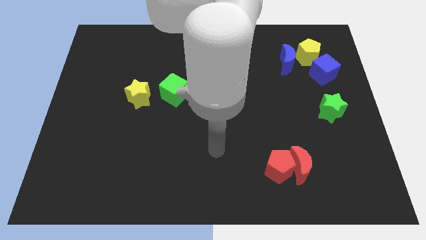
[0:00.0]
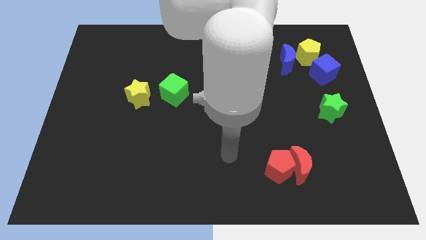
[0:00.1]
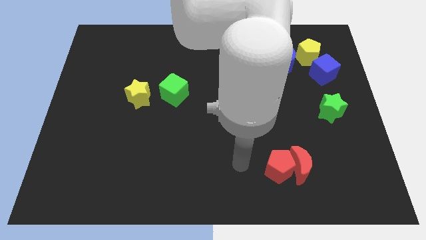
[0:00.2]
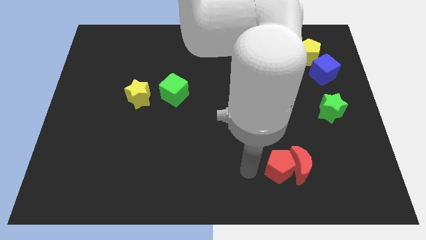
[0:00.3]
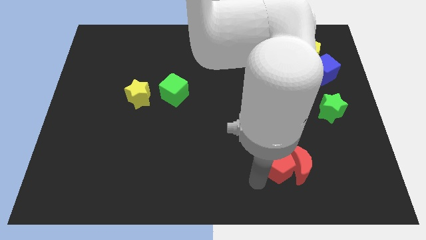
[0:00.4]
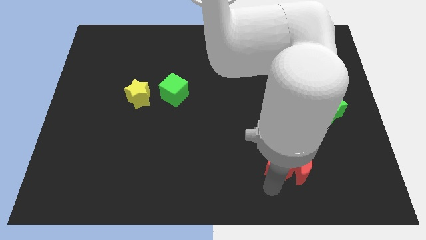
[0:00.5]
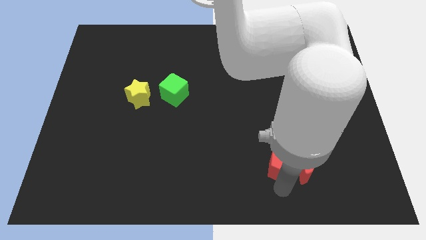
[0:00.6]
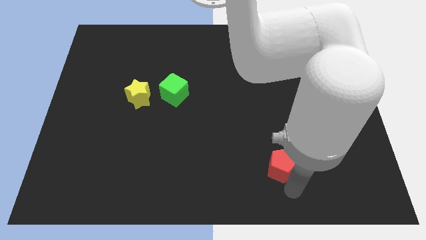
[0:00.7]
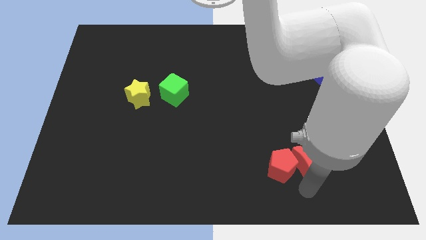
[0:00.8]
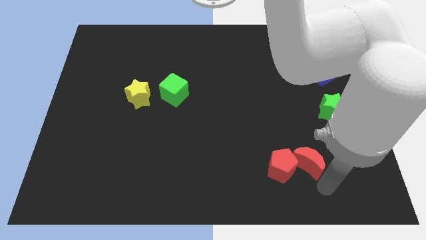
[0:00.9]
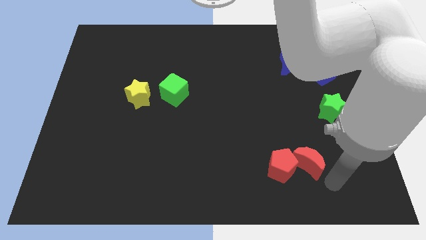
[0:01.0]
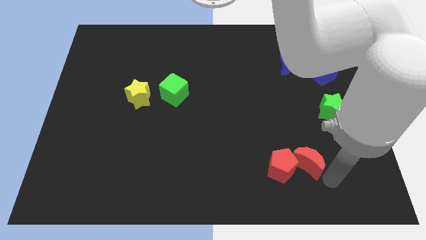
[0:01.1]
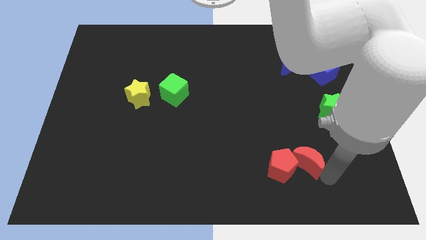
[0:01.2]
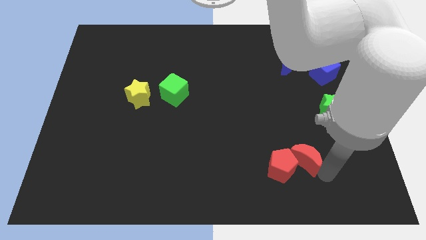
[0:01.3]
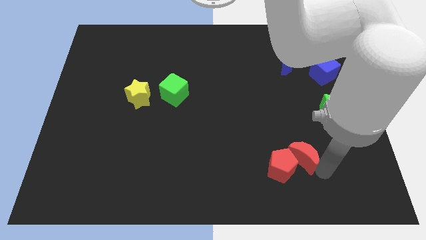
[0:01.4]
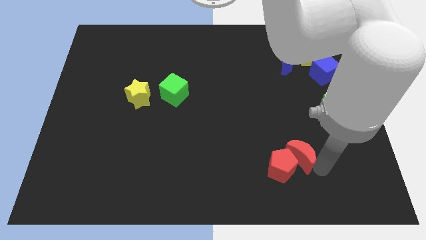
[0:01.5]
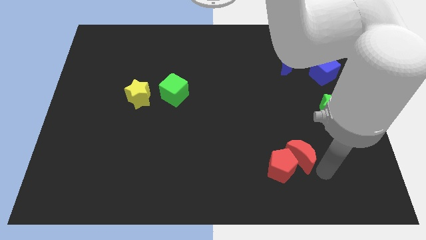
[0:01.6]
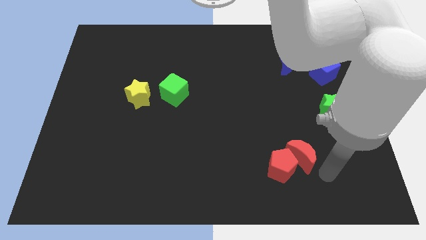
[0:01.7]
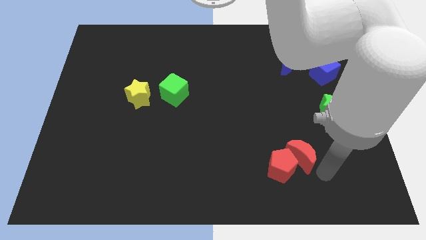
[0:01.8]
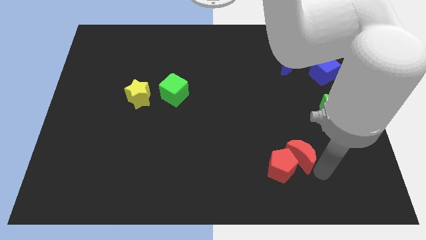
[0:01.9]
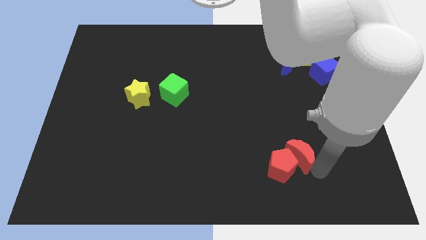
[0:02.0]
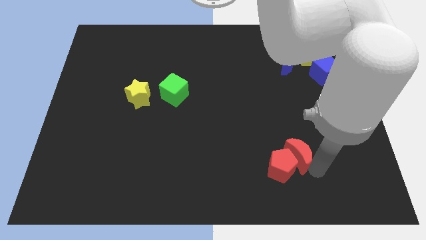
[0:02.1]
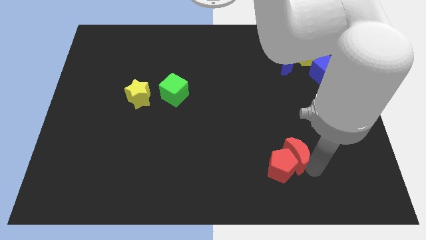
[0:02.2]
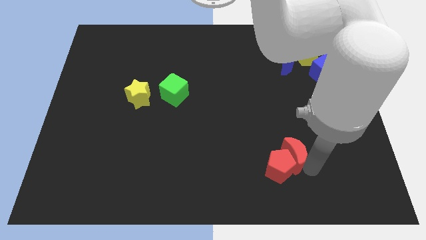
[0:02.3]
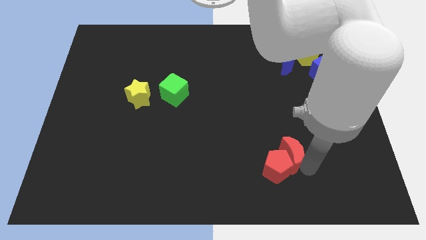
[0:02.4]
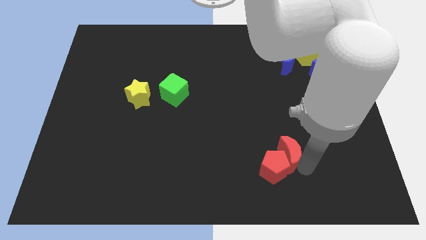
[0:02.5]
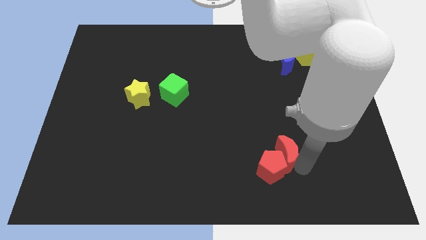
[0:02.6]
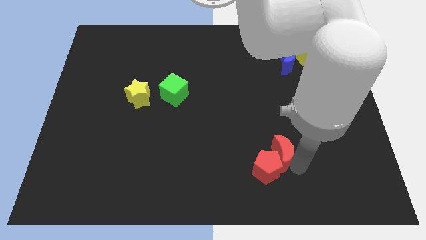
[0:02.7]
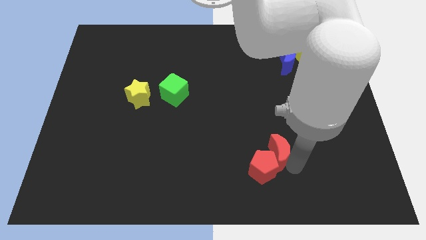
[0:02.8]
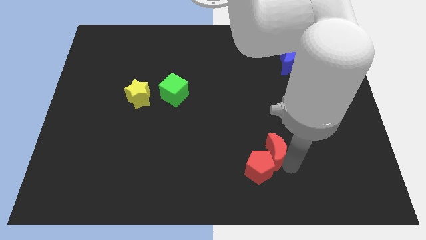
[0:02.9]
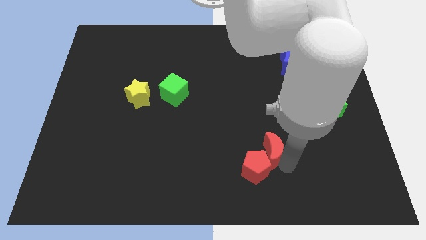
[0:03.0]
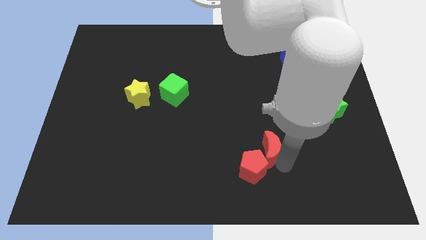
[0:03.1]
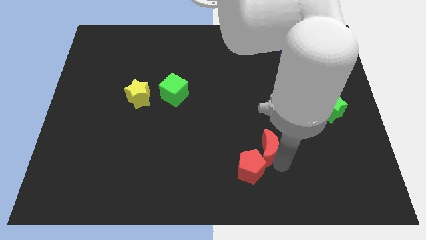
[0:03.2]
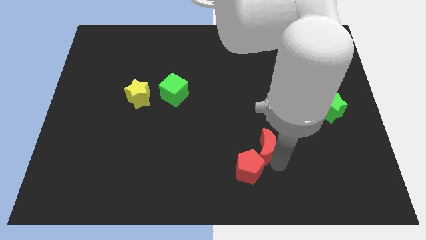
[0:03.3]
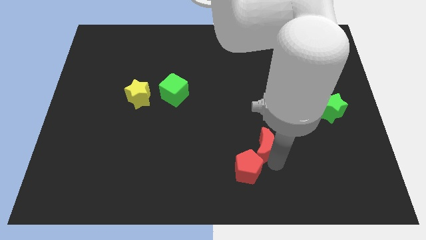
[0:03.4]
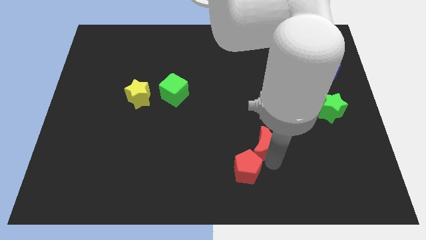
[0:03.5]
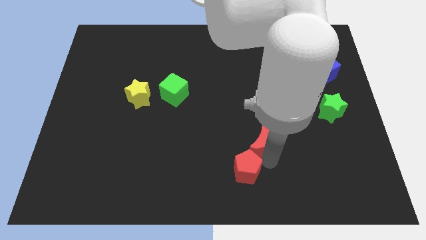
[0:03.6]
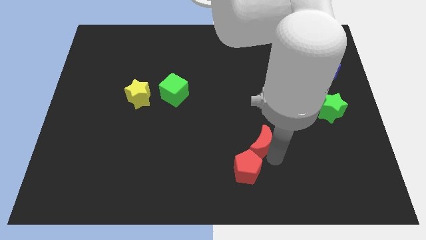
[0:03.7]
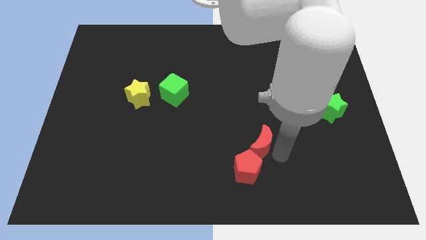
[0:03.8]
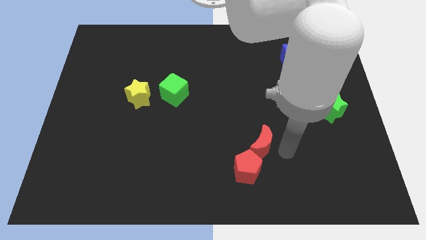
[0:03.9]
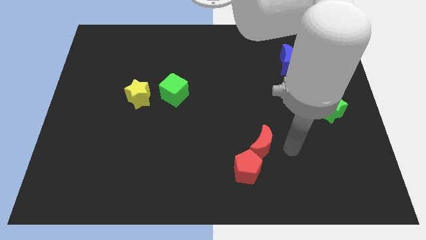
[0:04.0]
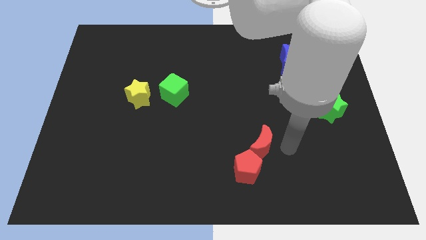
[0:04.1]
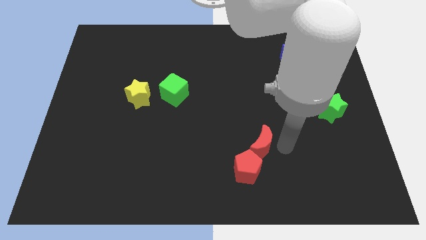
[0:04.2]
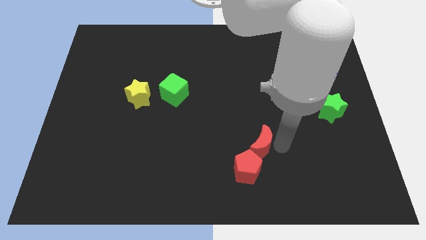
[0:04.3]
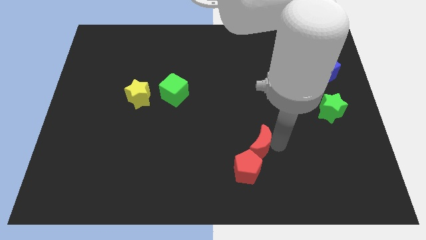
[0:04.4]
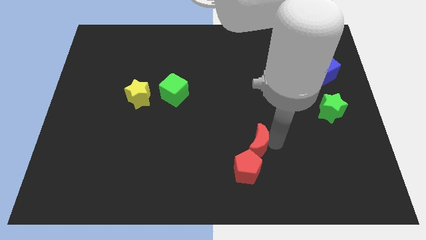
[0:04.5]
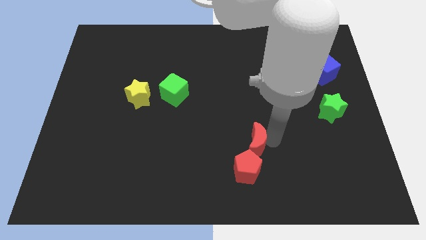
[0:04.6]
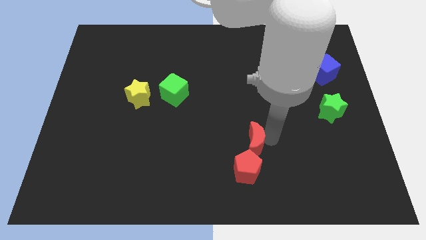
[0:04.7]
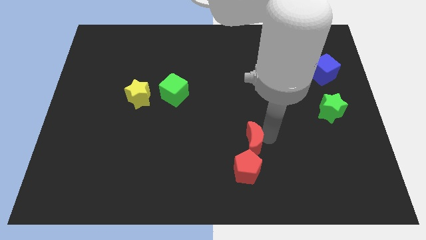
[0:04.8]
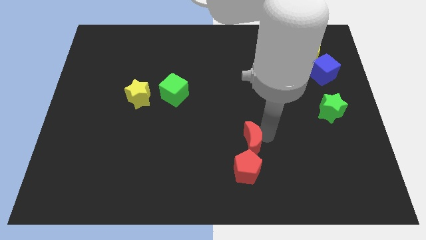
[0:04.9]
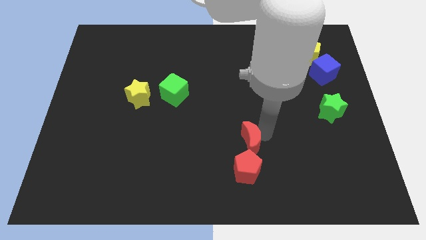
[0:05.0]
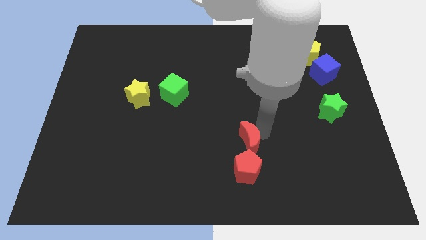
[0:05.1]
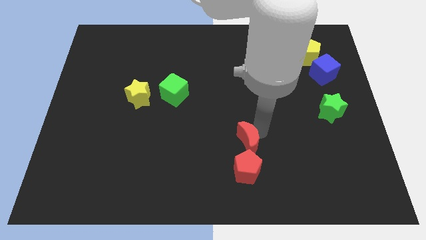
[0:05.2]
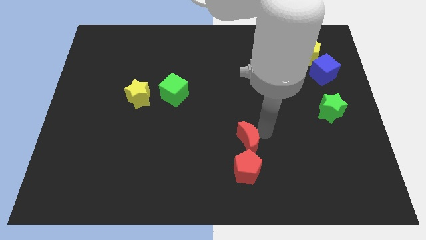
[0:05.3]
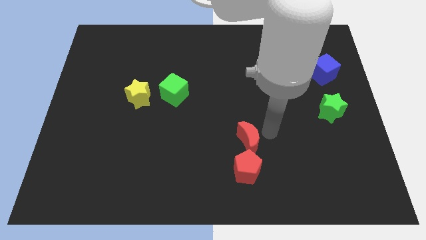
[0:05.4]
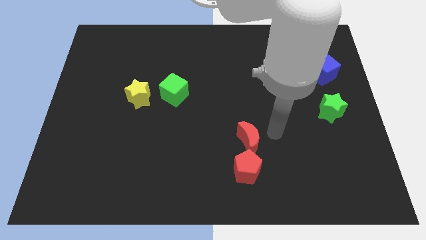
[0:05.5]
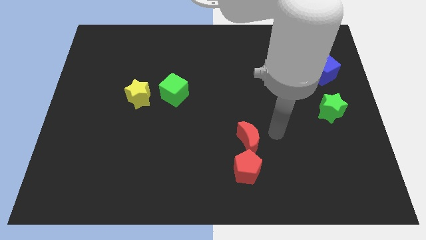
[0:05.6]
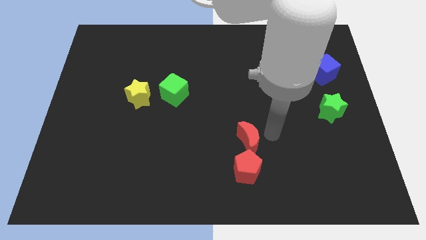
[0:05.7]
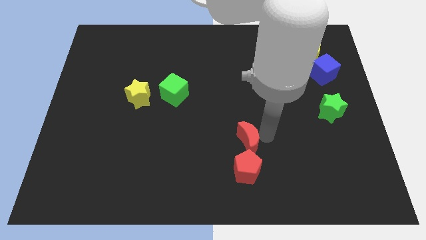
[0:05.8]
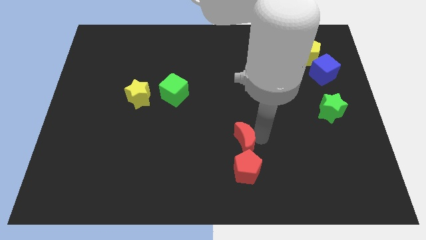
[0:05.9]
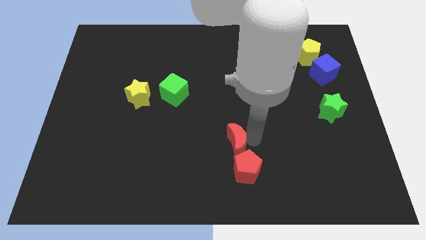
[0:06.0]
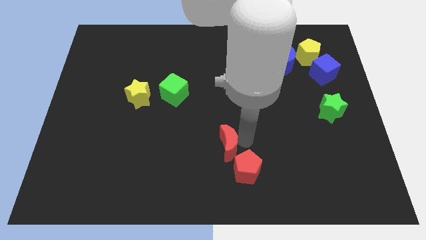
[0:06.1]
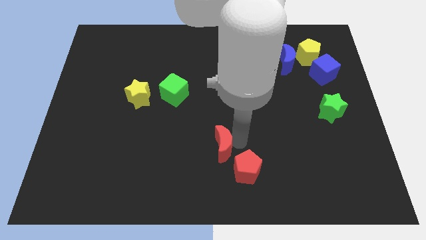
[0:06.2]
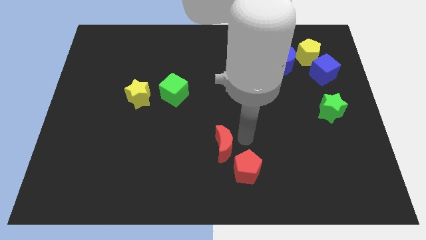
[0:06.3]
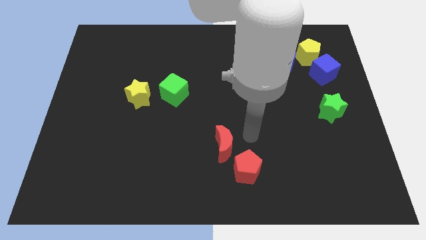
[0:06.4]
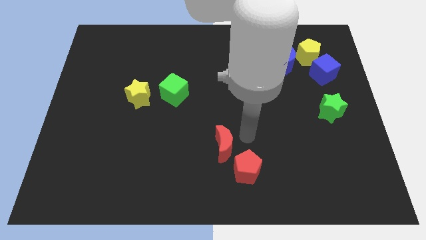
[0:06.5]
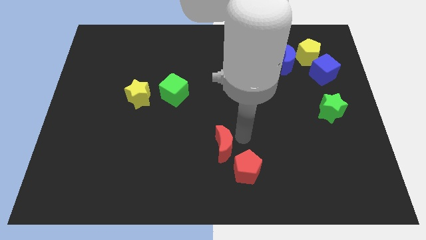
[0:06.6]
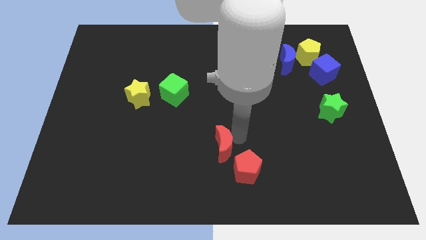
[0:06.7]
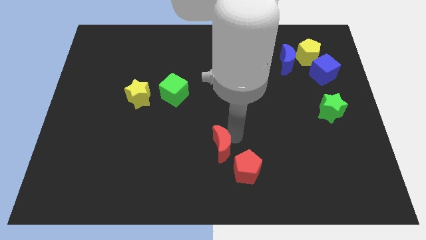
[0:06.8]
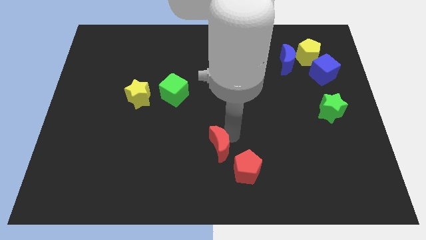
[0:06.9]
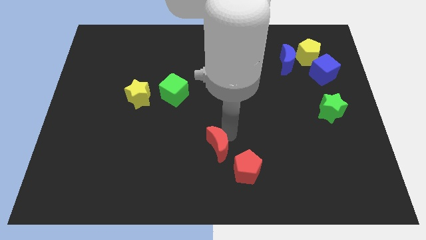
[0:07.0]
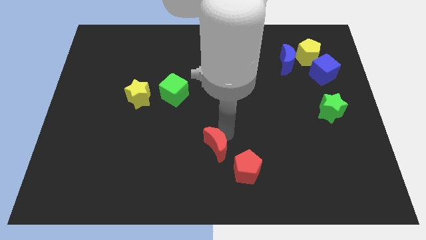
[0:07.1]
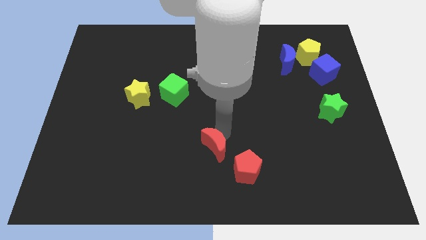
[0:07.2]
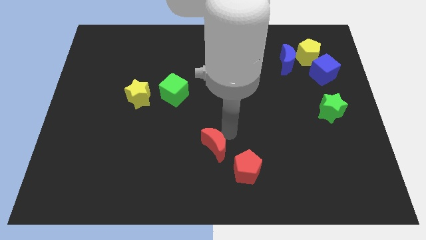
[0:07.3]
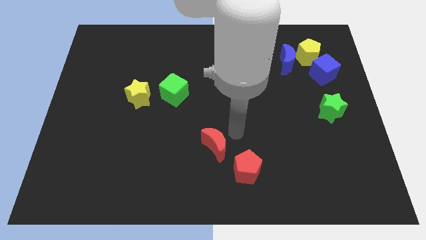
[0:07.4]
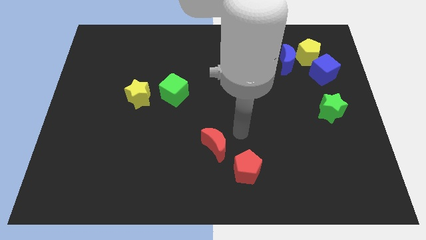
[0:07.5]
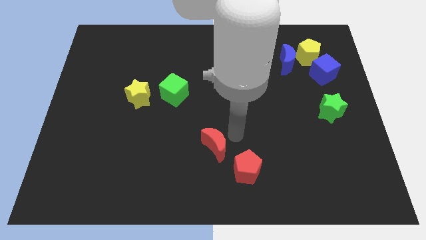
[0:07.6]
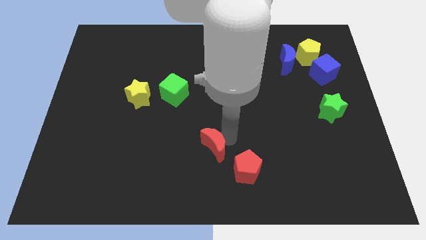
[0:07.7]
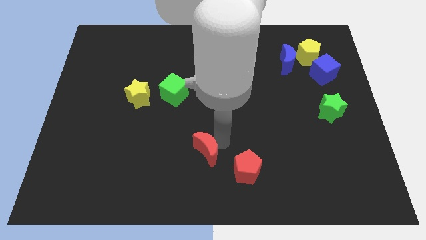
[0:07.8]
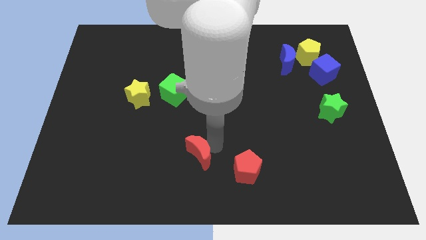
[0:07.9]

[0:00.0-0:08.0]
slide the red moon to the left
